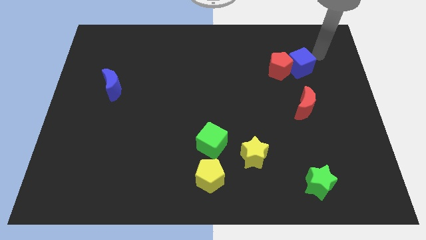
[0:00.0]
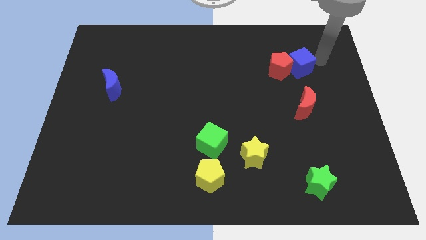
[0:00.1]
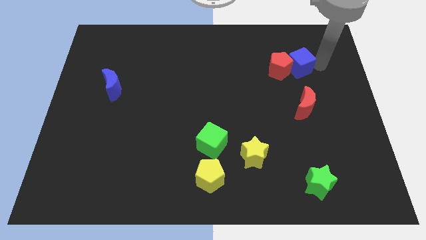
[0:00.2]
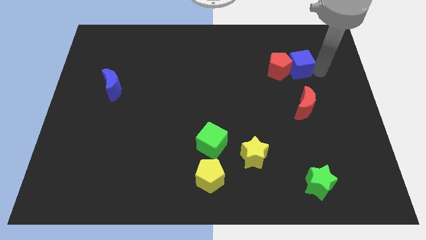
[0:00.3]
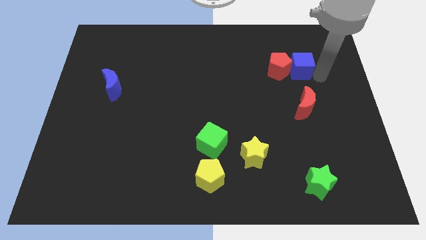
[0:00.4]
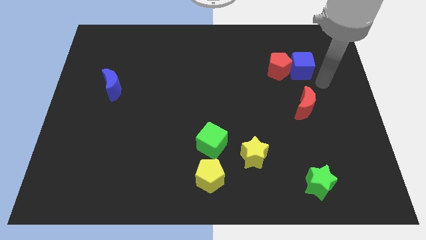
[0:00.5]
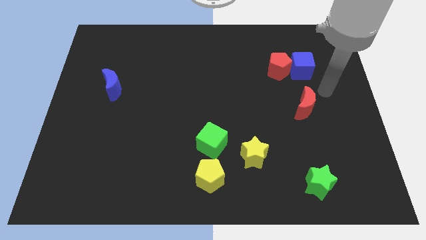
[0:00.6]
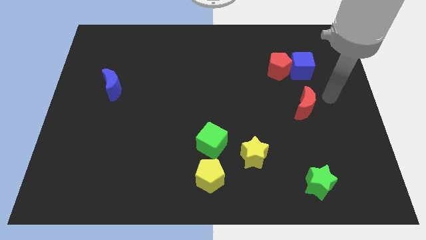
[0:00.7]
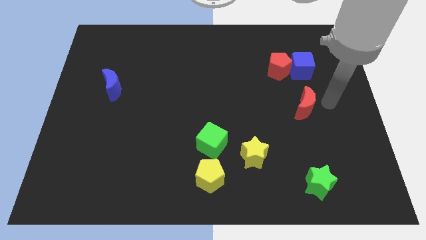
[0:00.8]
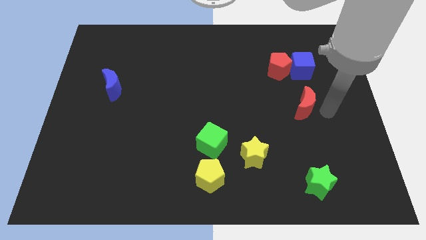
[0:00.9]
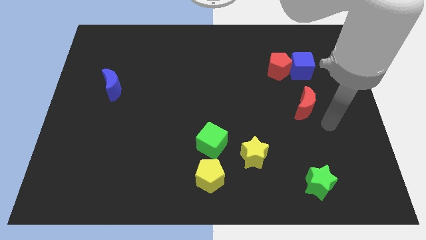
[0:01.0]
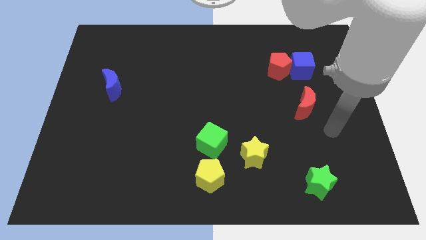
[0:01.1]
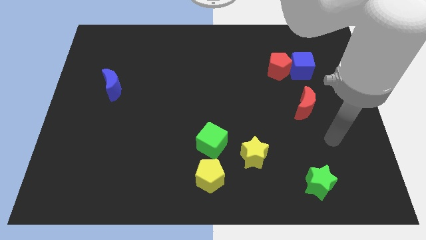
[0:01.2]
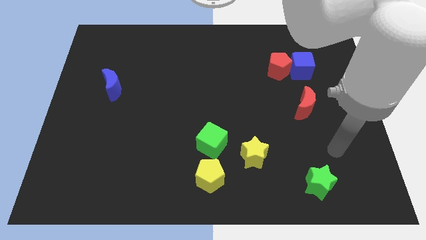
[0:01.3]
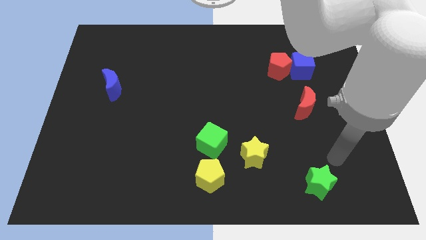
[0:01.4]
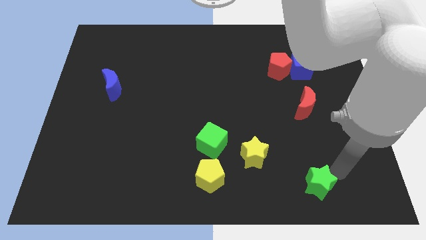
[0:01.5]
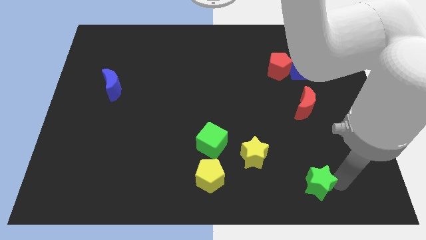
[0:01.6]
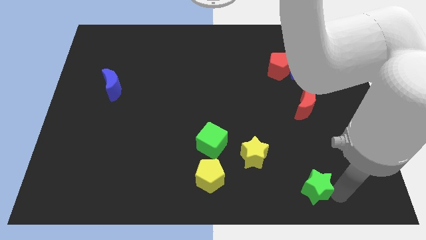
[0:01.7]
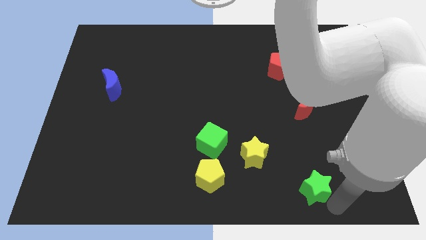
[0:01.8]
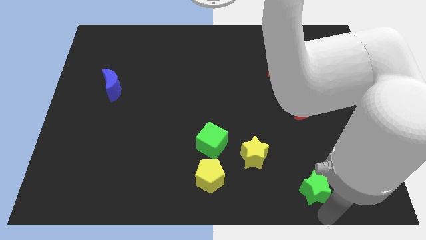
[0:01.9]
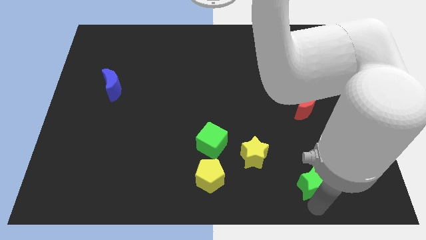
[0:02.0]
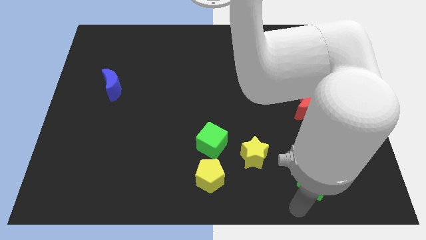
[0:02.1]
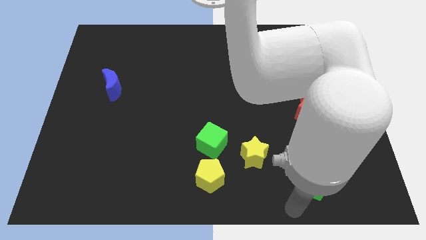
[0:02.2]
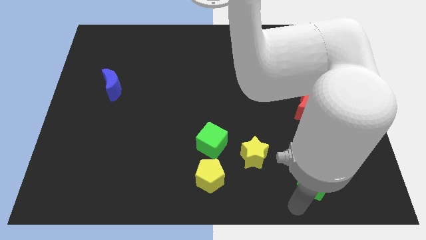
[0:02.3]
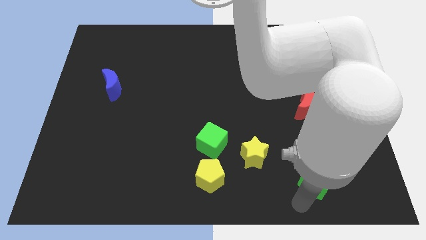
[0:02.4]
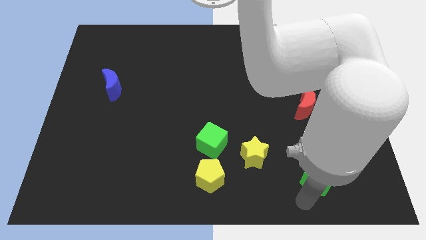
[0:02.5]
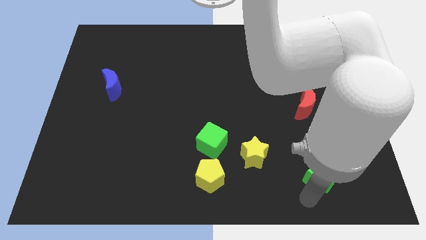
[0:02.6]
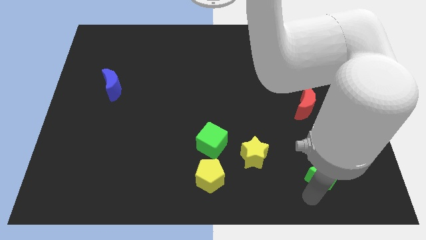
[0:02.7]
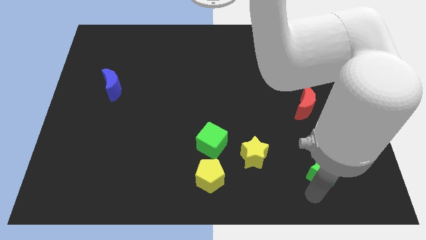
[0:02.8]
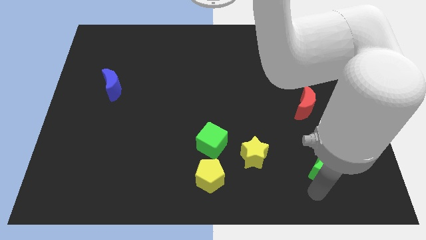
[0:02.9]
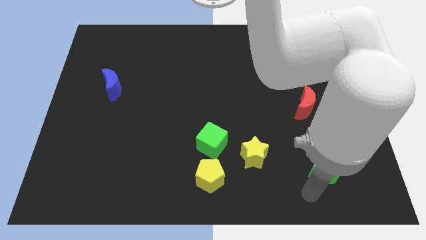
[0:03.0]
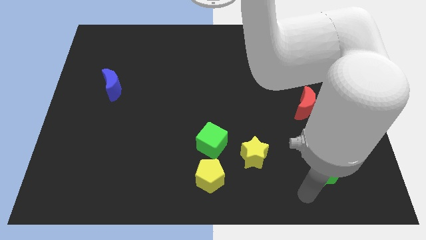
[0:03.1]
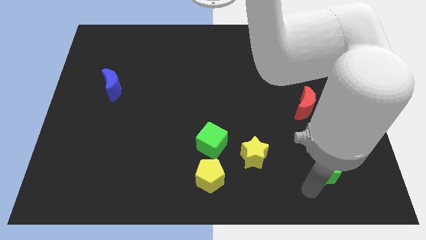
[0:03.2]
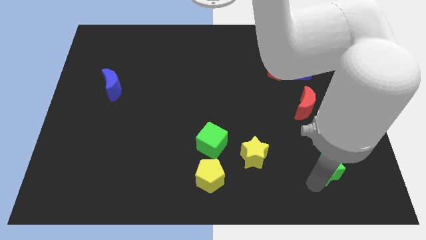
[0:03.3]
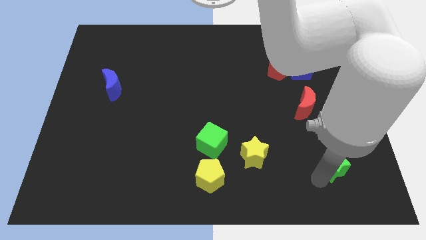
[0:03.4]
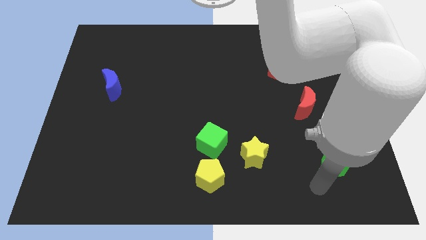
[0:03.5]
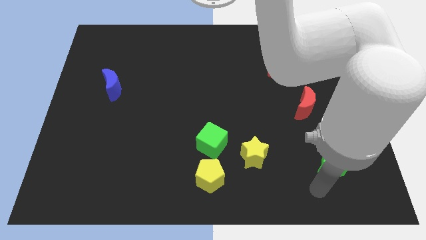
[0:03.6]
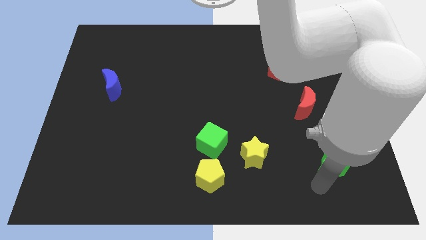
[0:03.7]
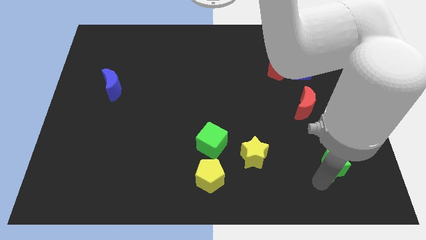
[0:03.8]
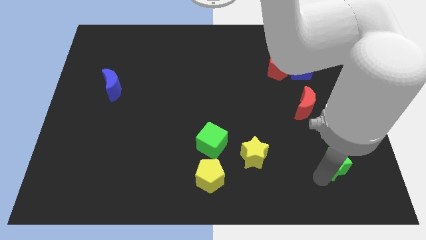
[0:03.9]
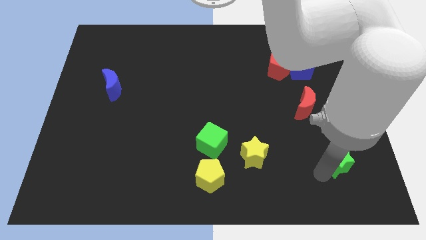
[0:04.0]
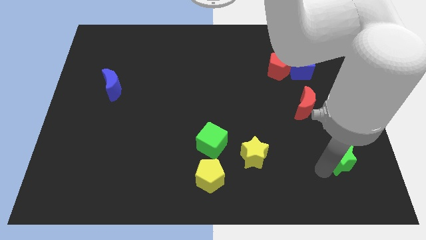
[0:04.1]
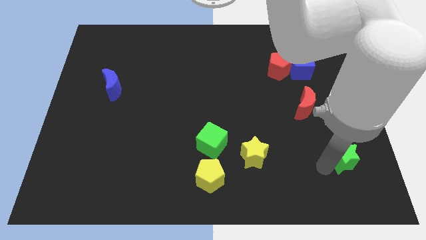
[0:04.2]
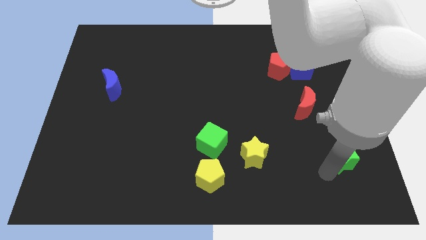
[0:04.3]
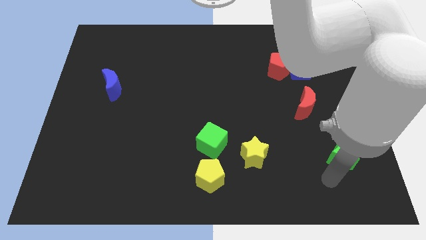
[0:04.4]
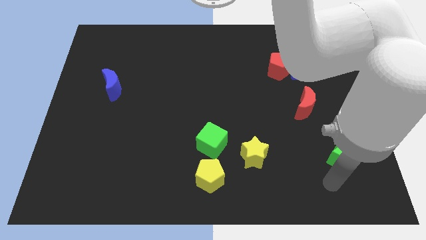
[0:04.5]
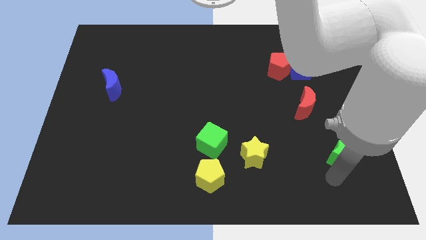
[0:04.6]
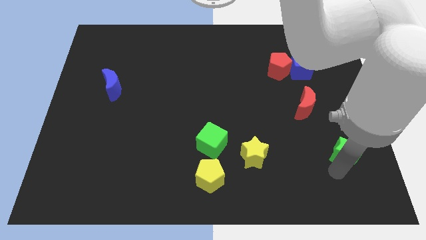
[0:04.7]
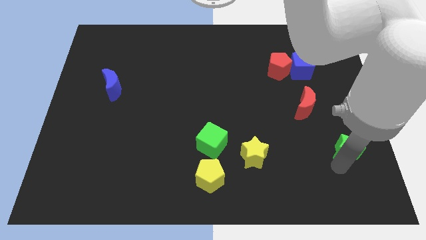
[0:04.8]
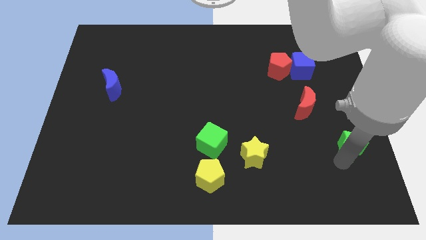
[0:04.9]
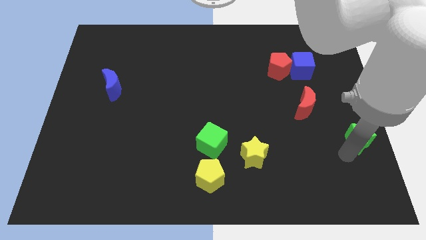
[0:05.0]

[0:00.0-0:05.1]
move the green star to the center right

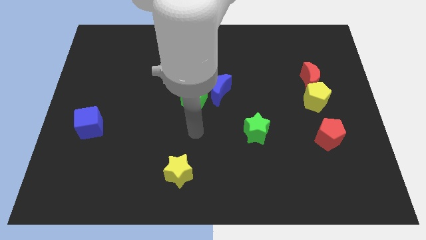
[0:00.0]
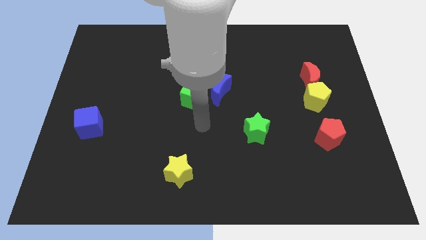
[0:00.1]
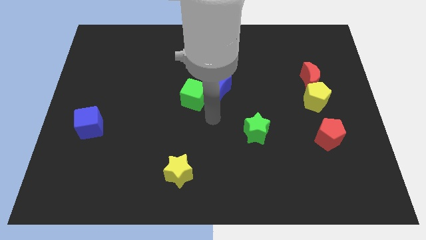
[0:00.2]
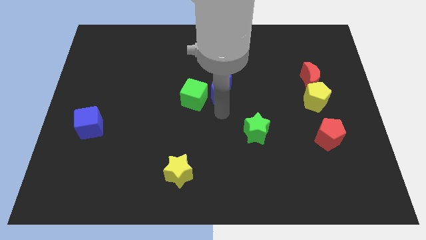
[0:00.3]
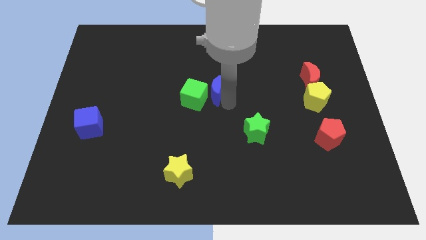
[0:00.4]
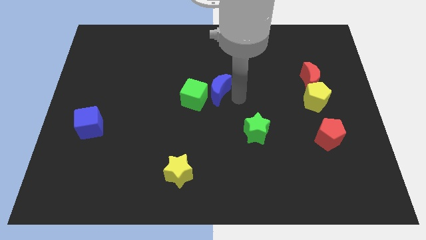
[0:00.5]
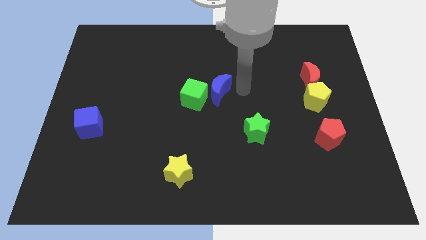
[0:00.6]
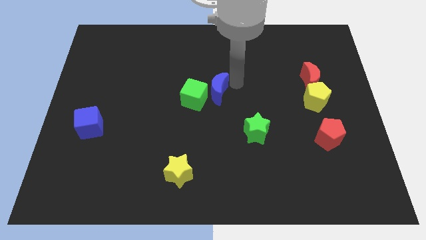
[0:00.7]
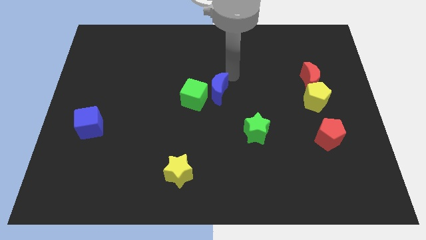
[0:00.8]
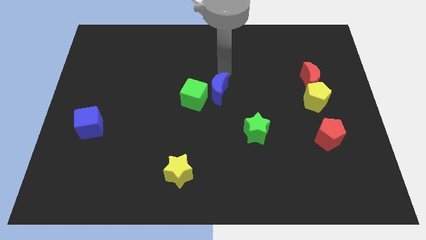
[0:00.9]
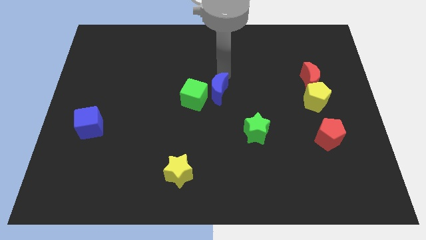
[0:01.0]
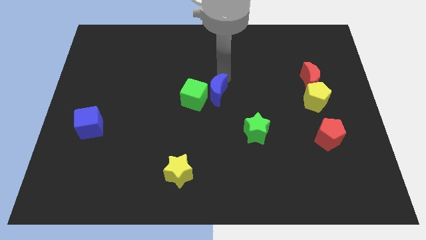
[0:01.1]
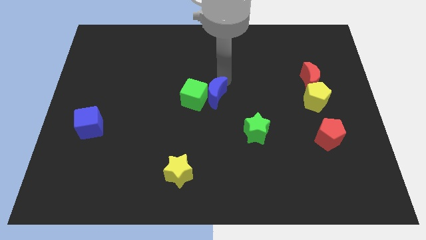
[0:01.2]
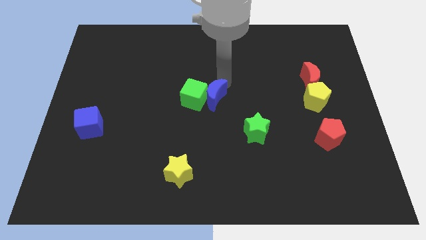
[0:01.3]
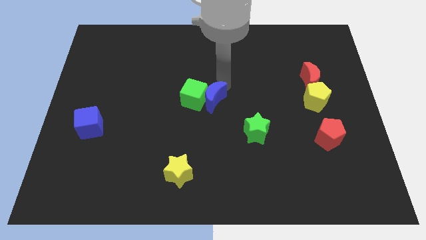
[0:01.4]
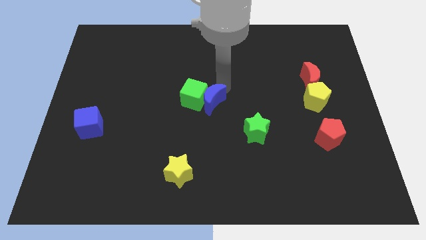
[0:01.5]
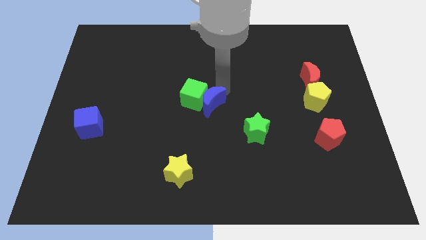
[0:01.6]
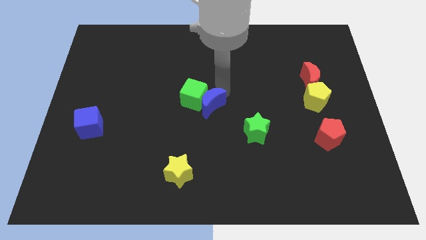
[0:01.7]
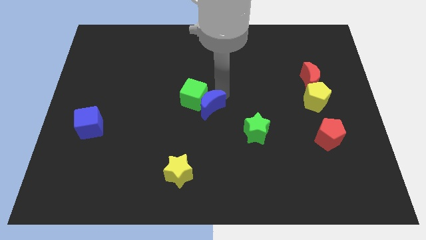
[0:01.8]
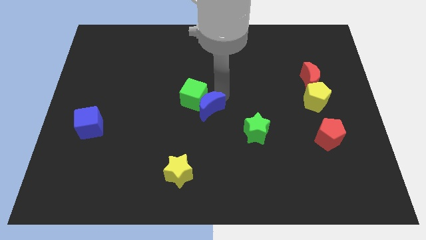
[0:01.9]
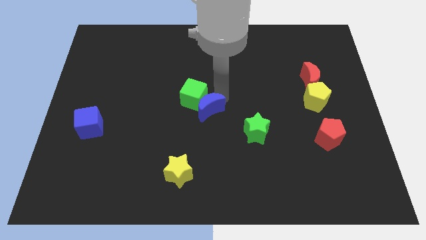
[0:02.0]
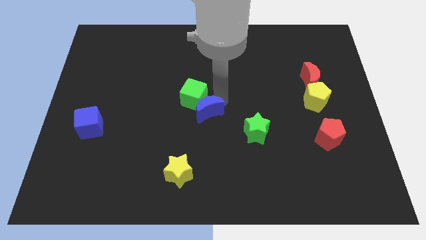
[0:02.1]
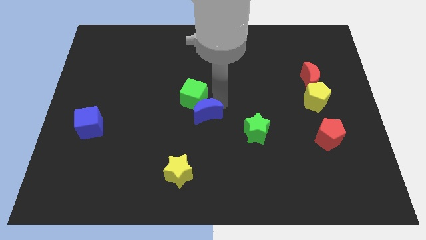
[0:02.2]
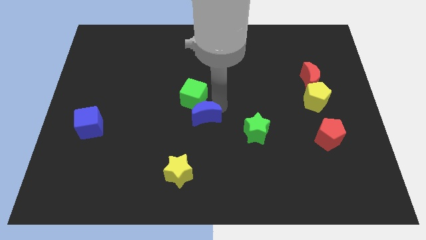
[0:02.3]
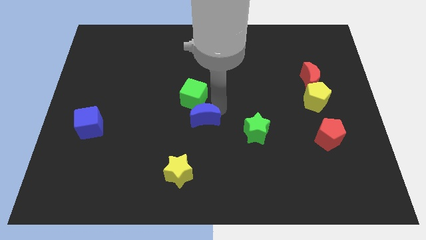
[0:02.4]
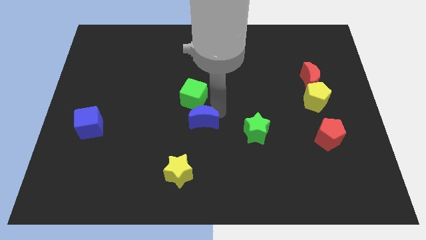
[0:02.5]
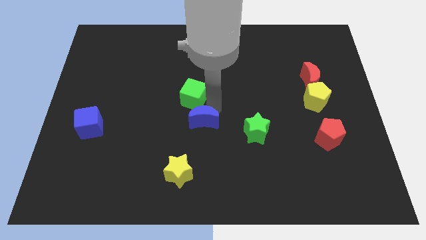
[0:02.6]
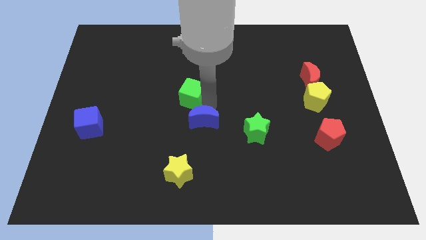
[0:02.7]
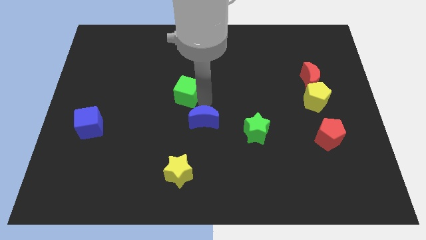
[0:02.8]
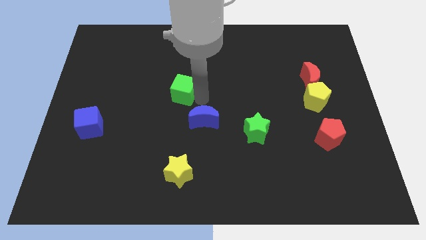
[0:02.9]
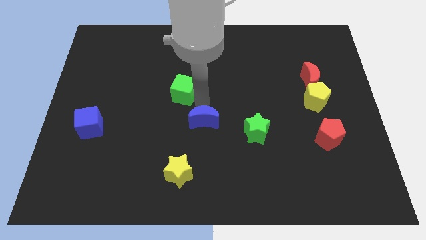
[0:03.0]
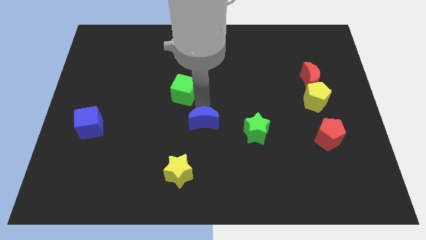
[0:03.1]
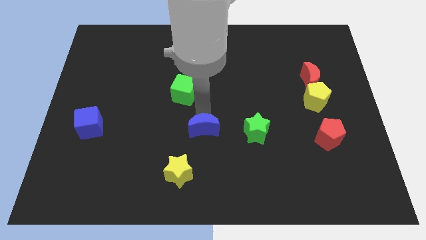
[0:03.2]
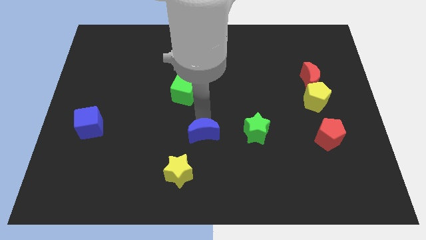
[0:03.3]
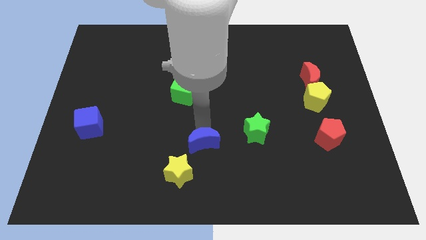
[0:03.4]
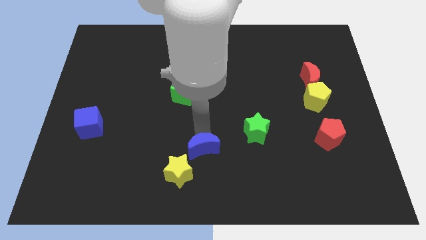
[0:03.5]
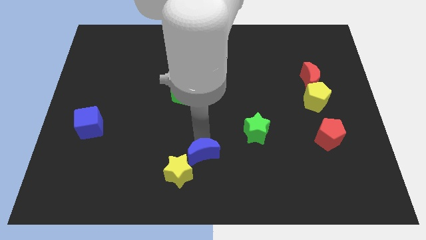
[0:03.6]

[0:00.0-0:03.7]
put the blue moon to the bottom side
